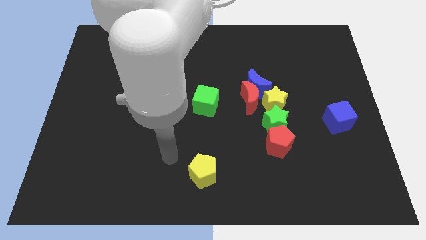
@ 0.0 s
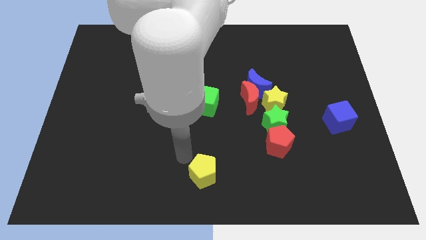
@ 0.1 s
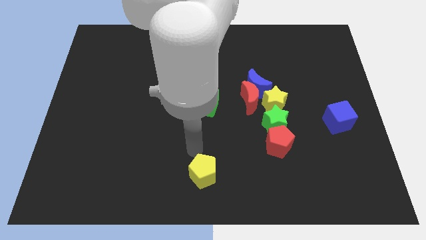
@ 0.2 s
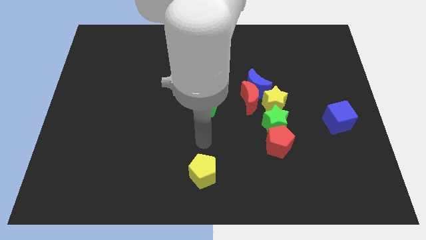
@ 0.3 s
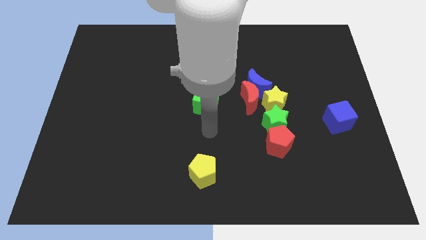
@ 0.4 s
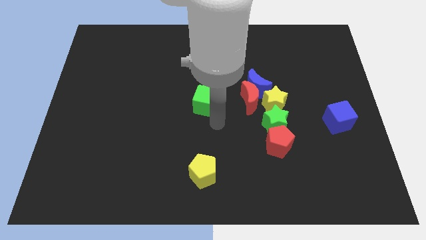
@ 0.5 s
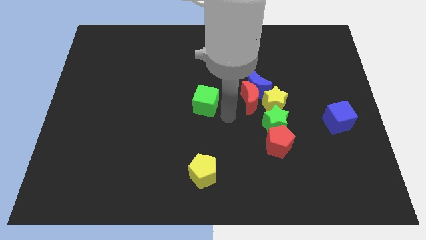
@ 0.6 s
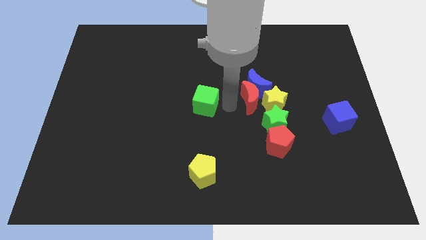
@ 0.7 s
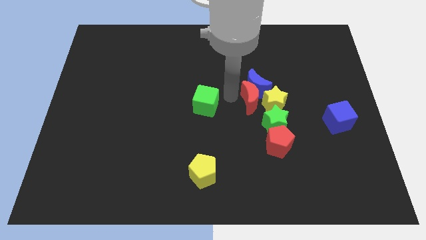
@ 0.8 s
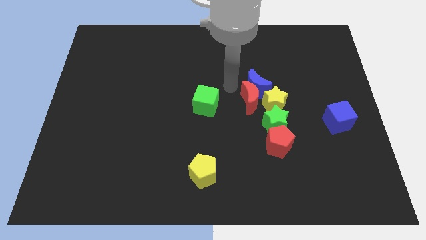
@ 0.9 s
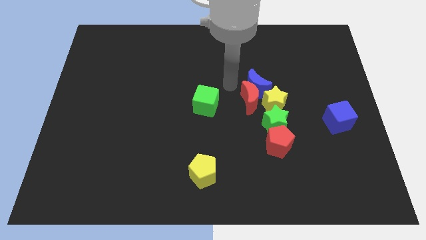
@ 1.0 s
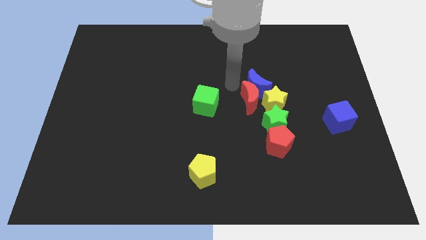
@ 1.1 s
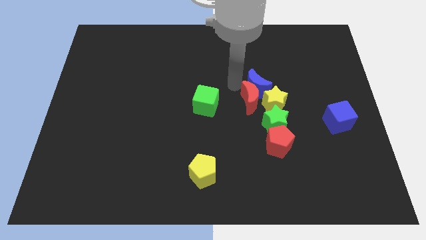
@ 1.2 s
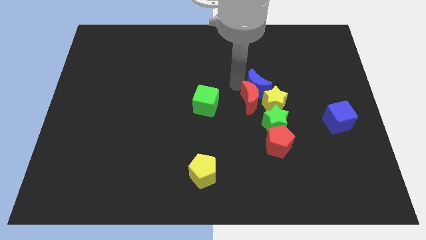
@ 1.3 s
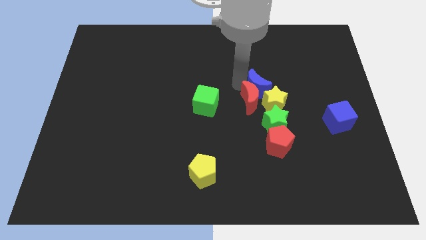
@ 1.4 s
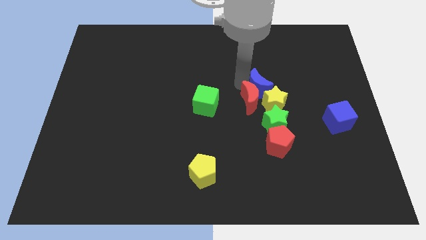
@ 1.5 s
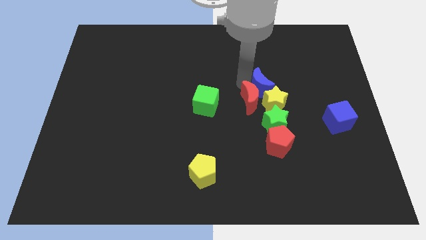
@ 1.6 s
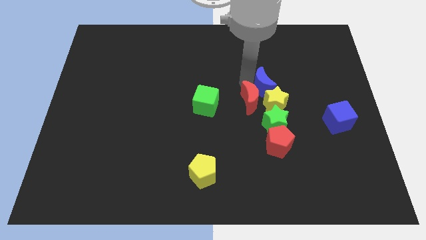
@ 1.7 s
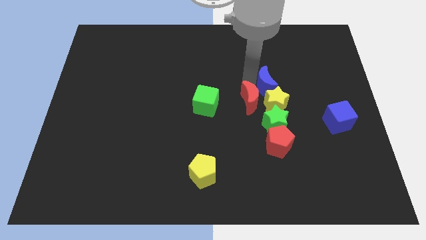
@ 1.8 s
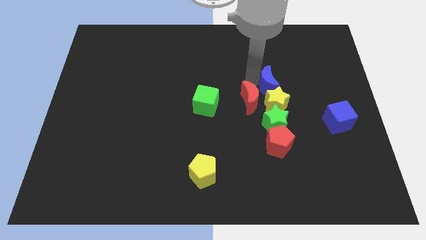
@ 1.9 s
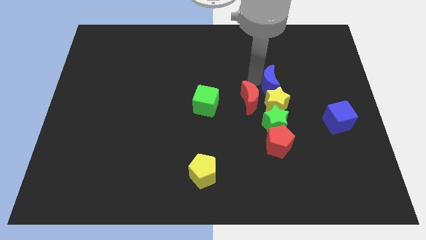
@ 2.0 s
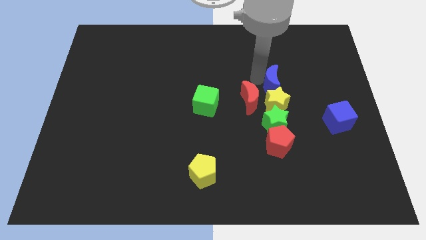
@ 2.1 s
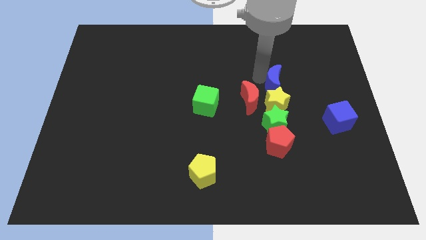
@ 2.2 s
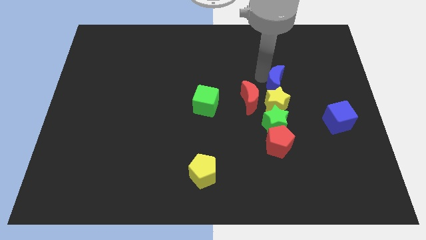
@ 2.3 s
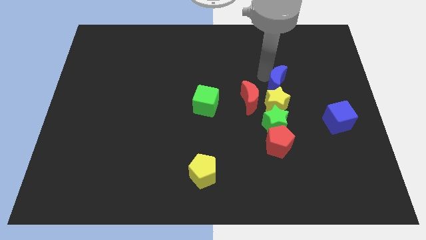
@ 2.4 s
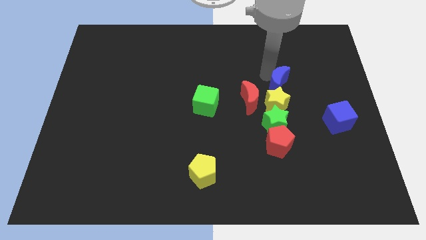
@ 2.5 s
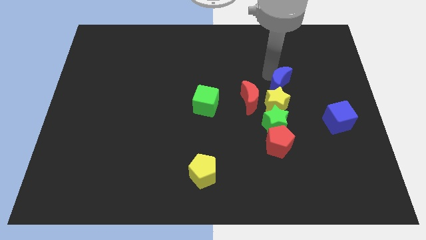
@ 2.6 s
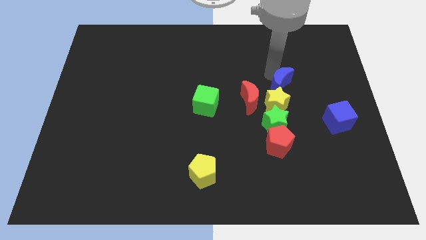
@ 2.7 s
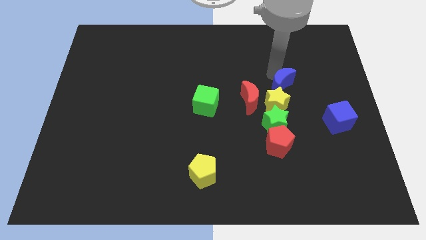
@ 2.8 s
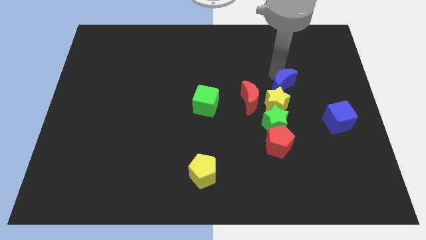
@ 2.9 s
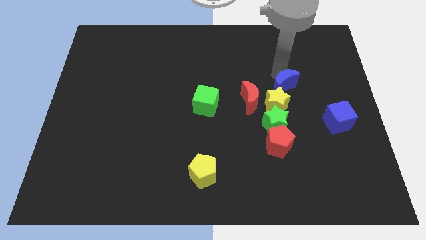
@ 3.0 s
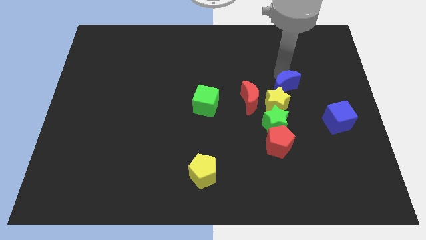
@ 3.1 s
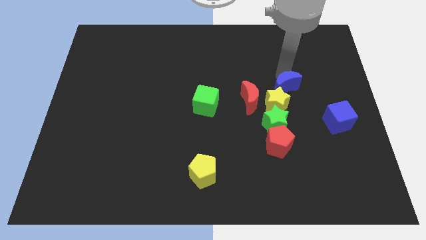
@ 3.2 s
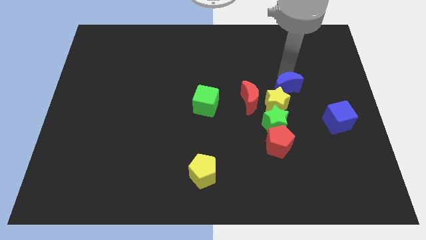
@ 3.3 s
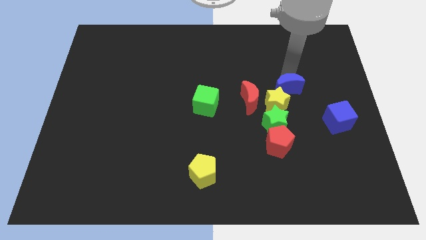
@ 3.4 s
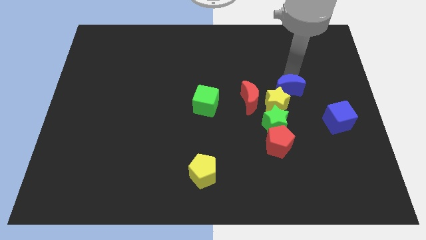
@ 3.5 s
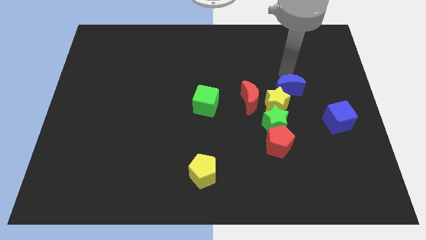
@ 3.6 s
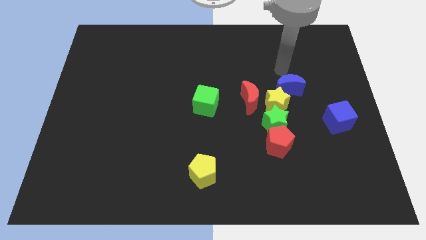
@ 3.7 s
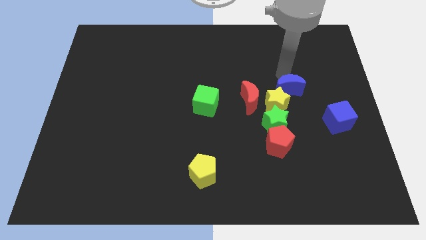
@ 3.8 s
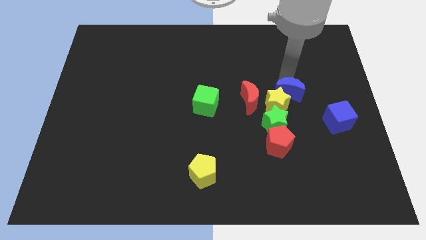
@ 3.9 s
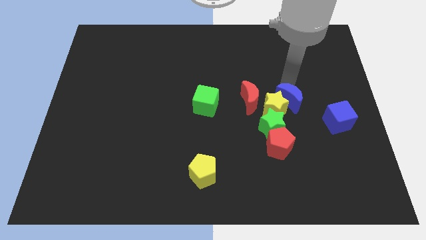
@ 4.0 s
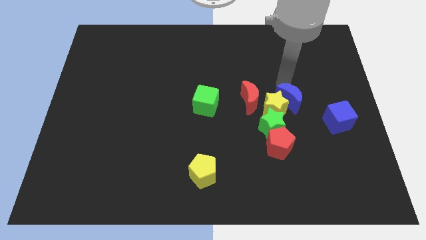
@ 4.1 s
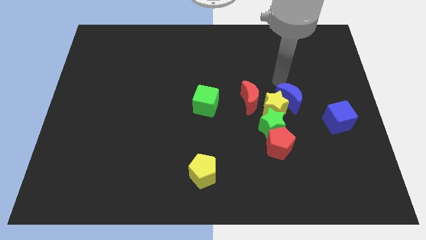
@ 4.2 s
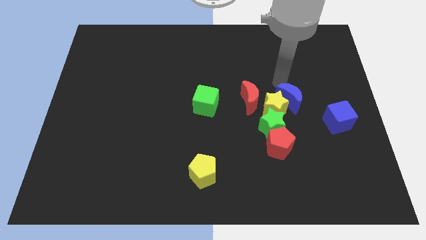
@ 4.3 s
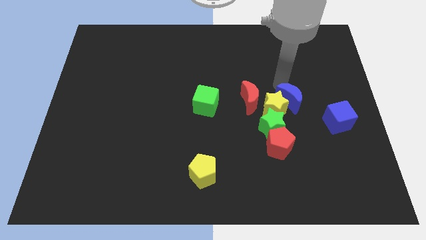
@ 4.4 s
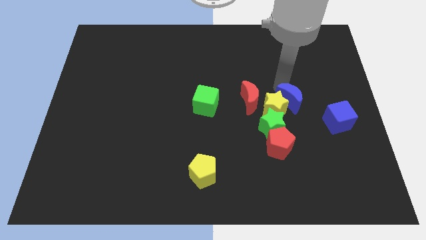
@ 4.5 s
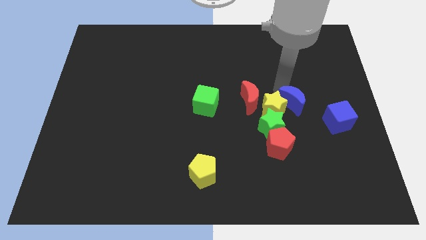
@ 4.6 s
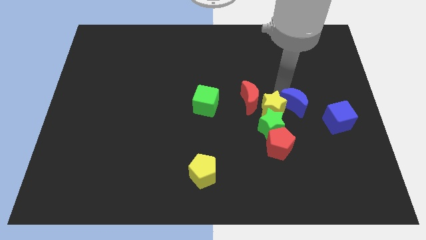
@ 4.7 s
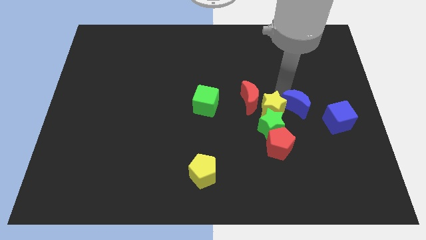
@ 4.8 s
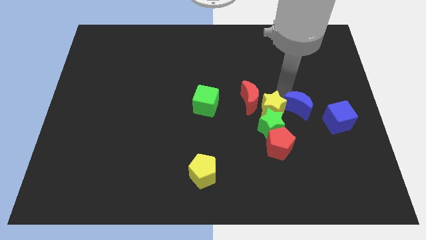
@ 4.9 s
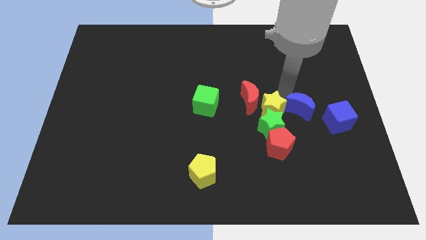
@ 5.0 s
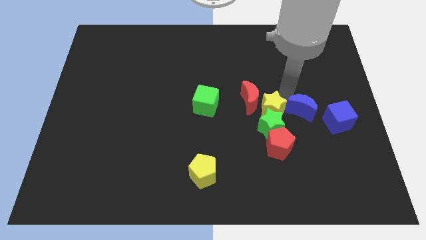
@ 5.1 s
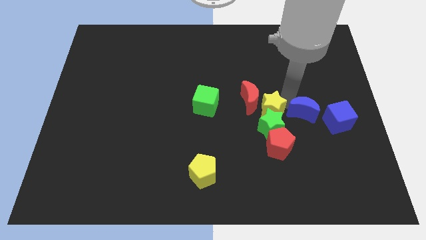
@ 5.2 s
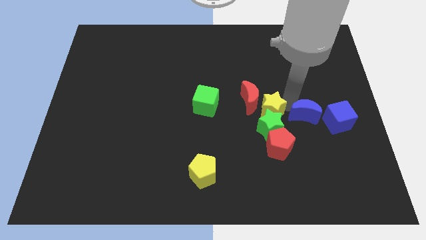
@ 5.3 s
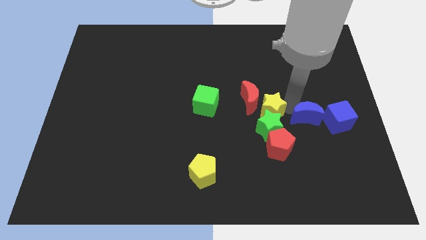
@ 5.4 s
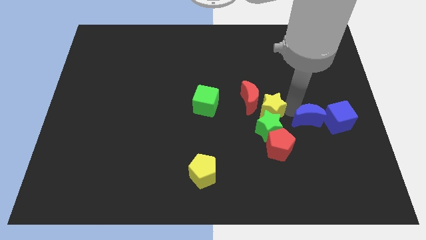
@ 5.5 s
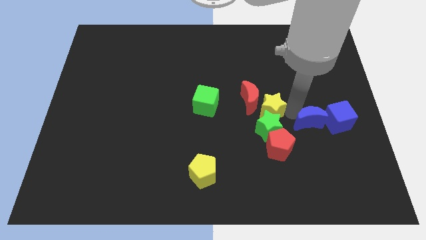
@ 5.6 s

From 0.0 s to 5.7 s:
put the blue moon to the bottom left side of the blue cube
